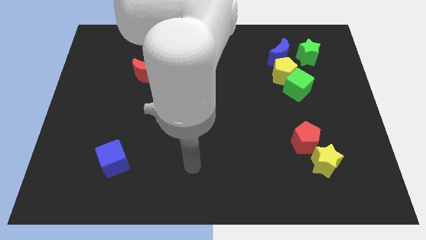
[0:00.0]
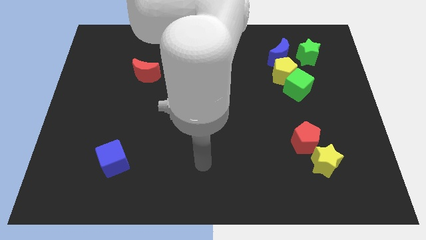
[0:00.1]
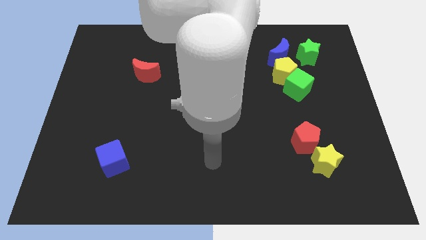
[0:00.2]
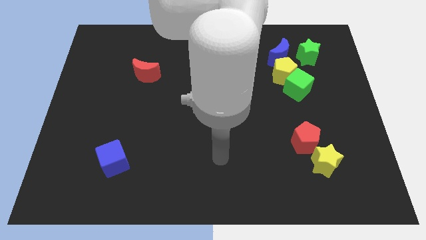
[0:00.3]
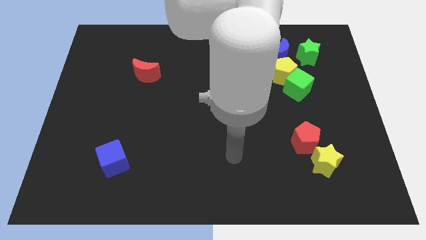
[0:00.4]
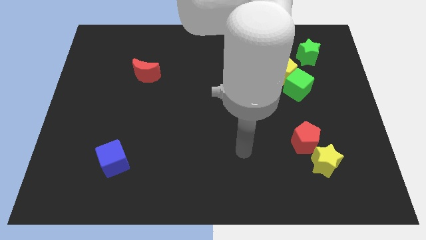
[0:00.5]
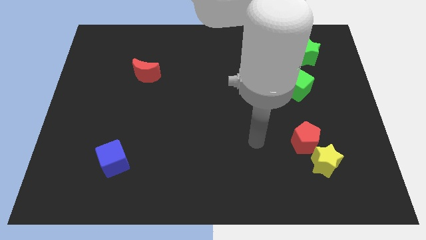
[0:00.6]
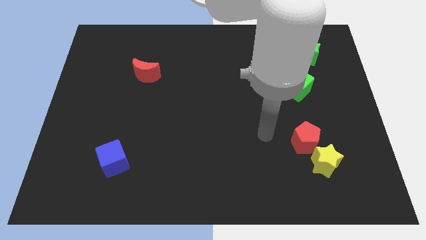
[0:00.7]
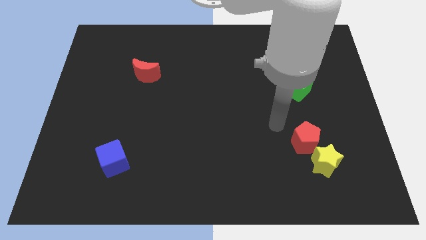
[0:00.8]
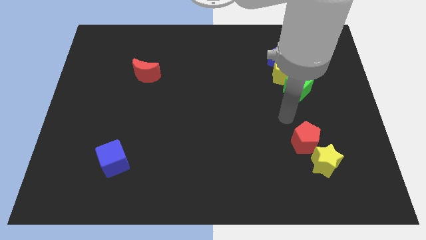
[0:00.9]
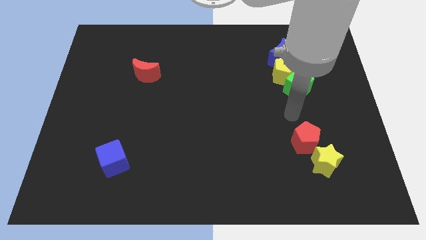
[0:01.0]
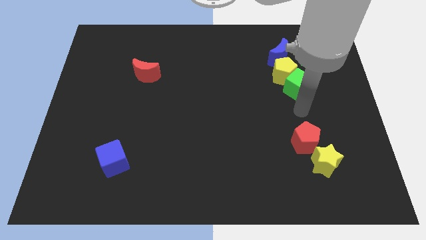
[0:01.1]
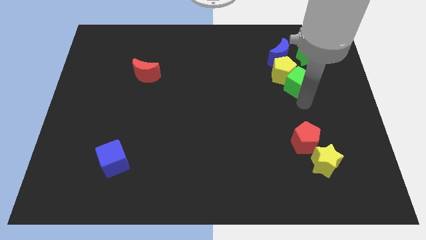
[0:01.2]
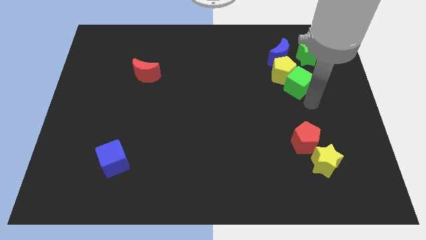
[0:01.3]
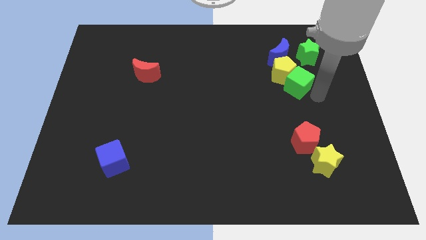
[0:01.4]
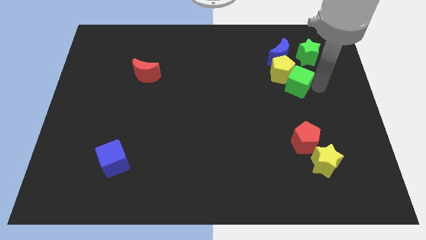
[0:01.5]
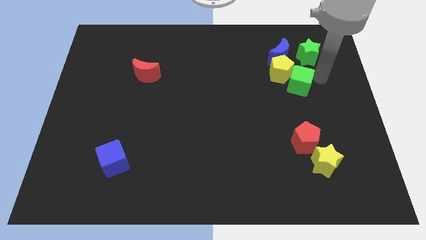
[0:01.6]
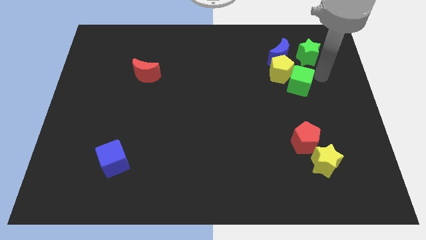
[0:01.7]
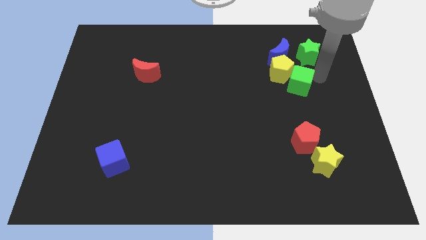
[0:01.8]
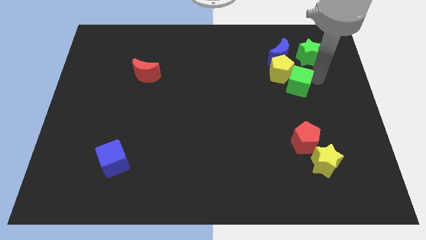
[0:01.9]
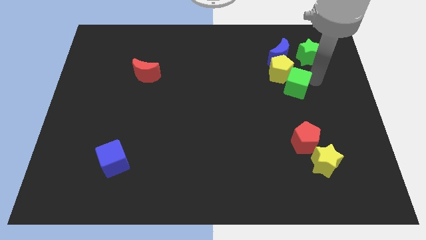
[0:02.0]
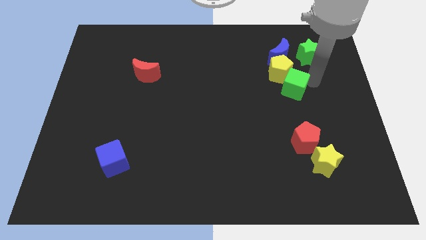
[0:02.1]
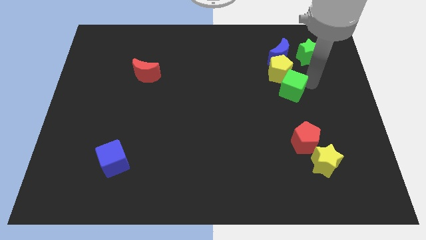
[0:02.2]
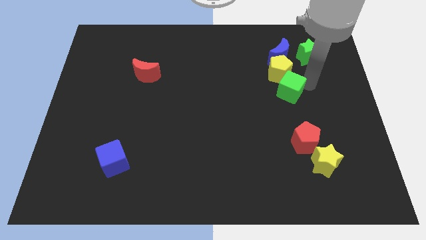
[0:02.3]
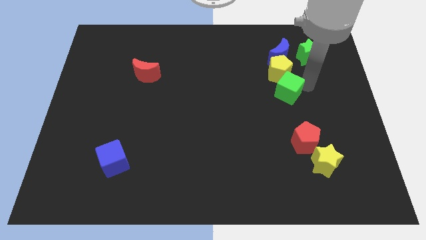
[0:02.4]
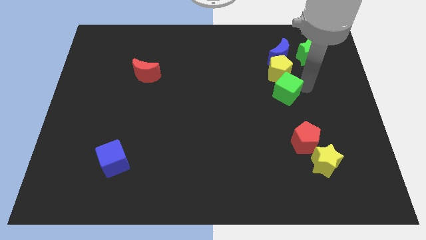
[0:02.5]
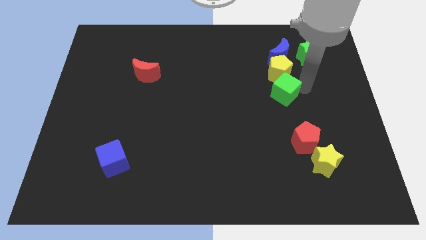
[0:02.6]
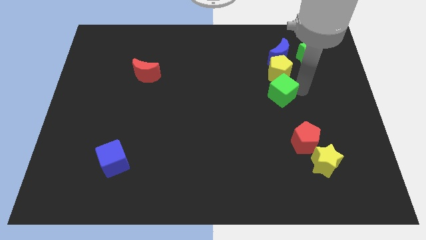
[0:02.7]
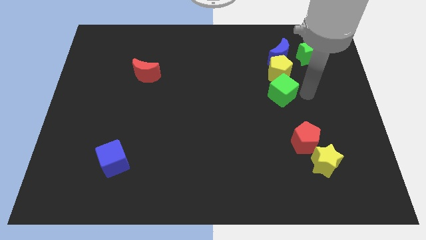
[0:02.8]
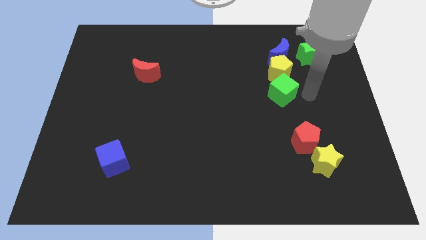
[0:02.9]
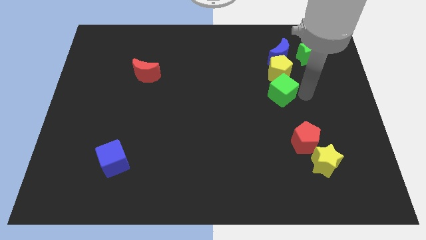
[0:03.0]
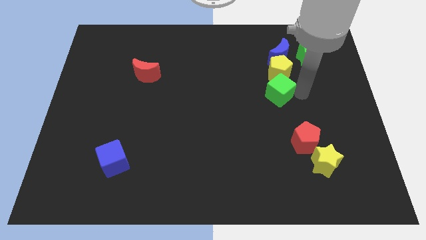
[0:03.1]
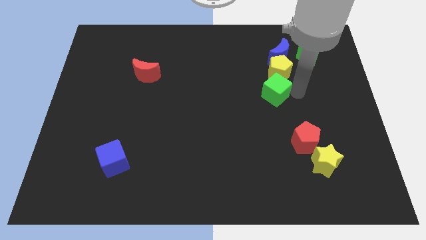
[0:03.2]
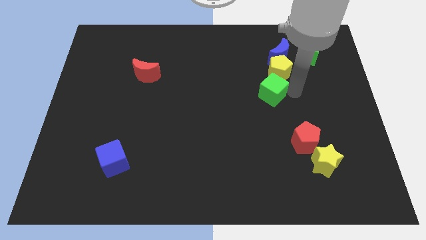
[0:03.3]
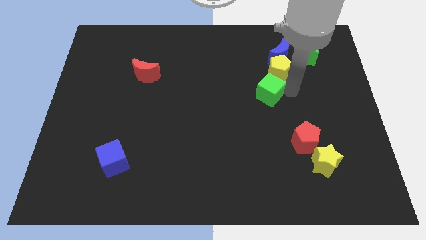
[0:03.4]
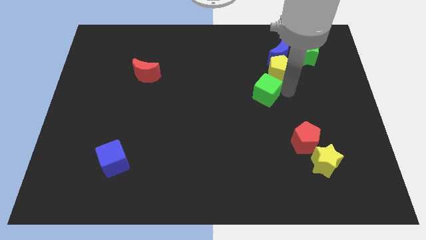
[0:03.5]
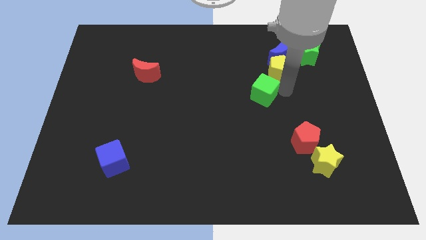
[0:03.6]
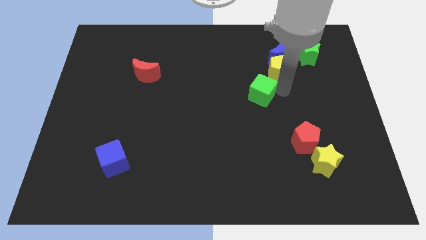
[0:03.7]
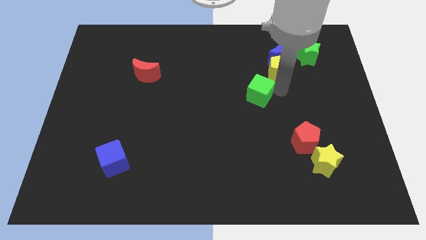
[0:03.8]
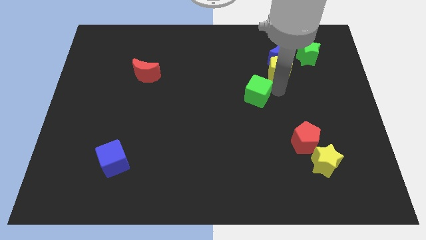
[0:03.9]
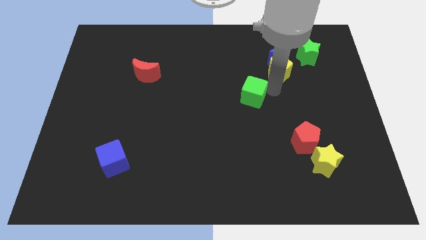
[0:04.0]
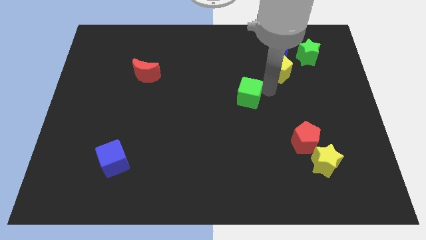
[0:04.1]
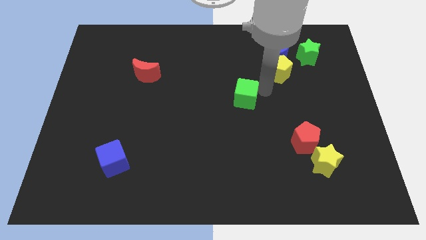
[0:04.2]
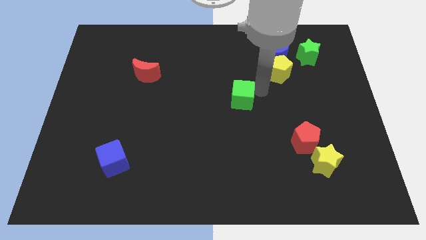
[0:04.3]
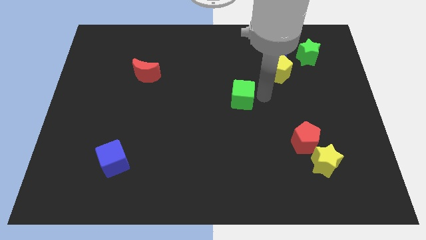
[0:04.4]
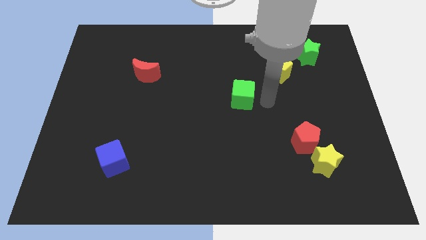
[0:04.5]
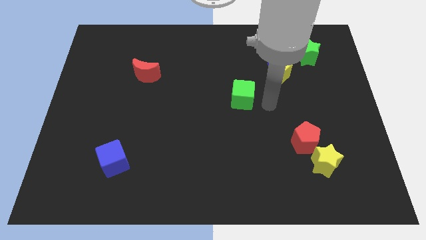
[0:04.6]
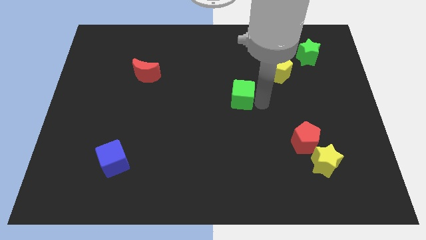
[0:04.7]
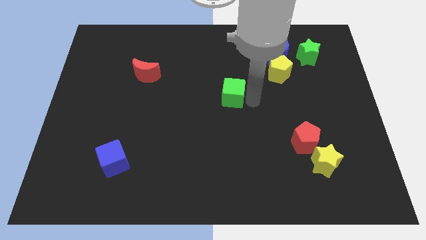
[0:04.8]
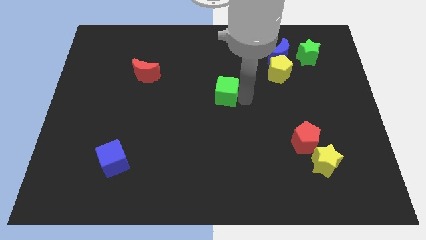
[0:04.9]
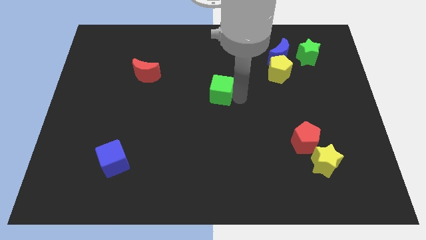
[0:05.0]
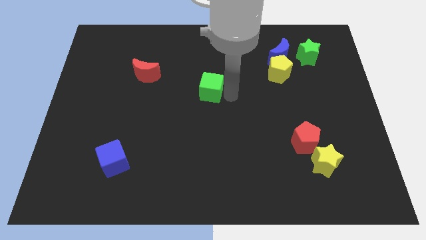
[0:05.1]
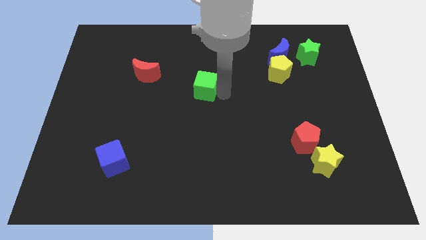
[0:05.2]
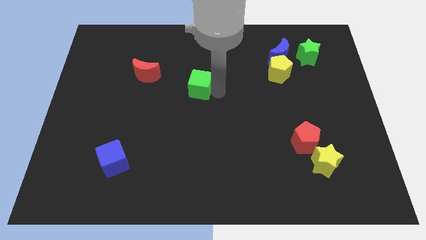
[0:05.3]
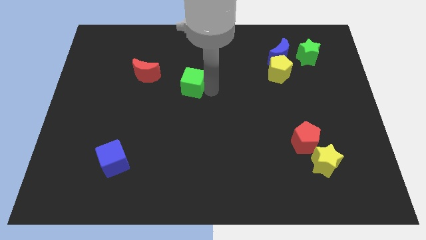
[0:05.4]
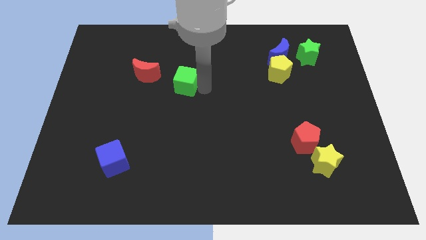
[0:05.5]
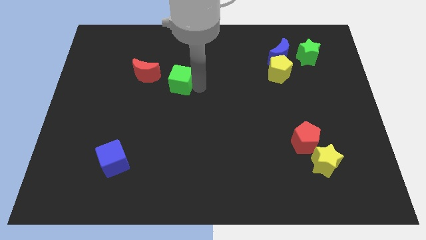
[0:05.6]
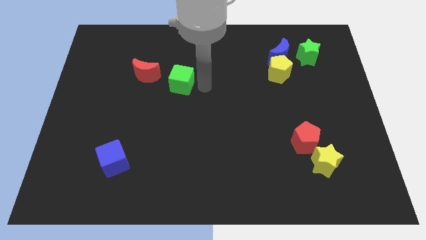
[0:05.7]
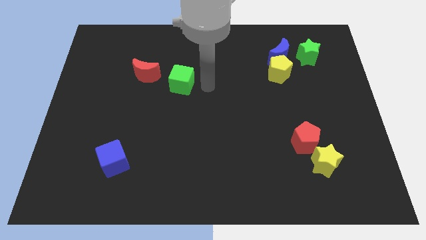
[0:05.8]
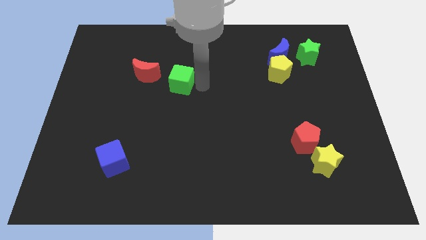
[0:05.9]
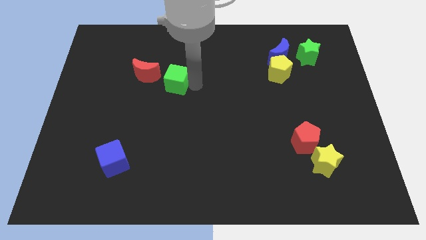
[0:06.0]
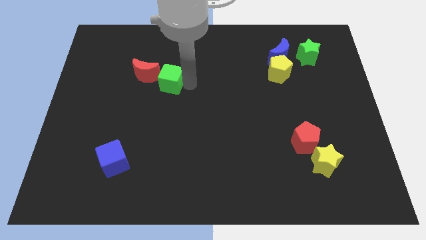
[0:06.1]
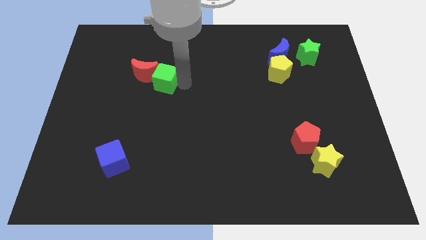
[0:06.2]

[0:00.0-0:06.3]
move the green cube next to the red moon

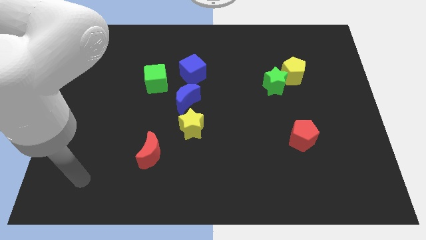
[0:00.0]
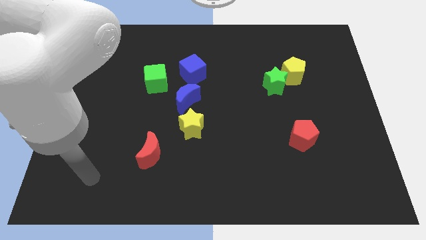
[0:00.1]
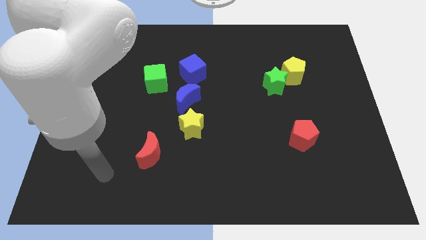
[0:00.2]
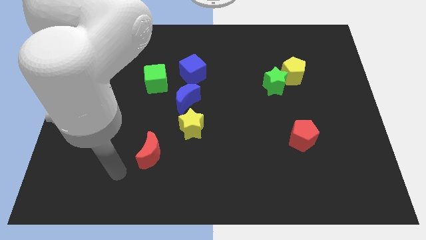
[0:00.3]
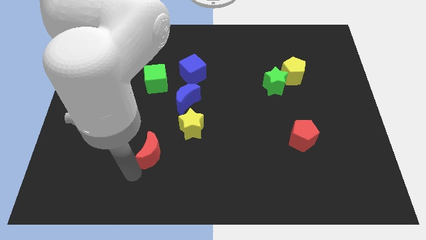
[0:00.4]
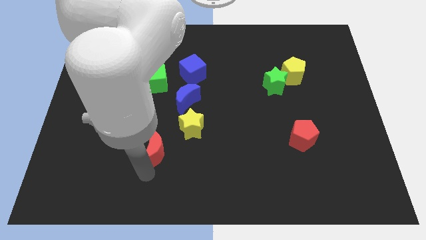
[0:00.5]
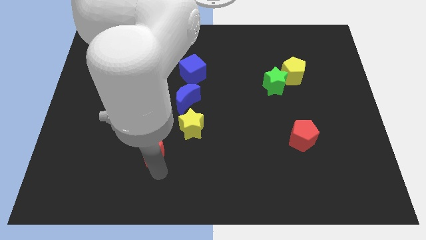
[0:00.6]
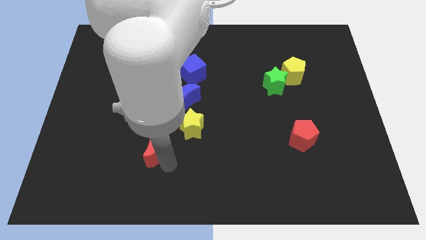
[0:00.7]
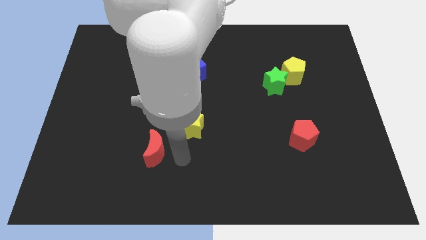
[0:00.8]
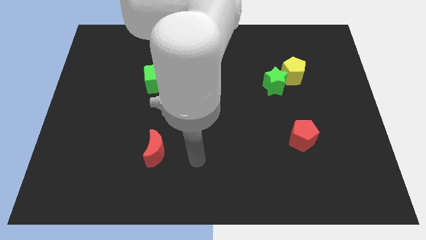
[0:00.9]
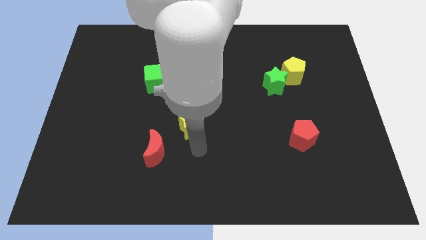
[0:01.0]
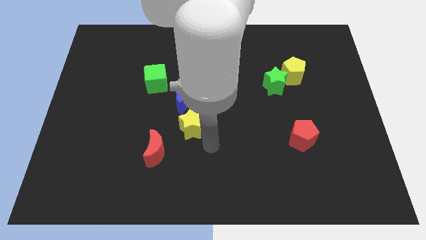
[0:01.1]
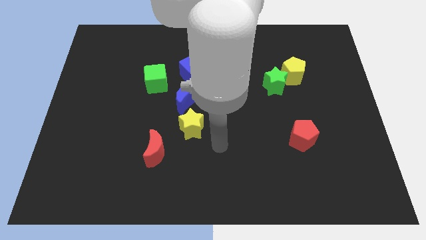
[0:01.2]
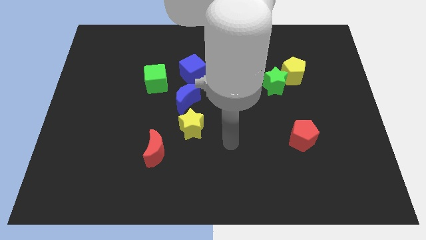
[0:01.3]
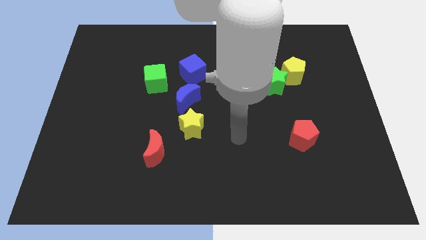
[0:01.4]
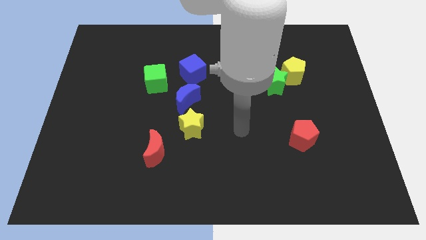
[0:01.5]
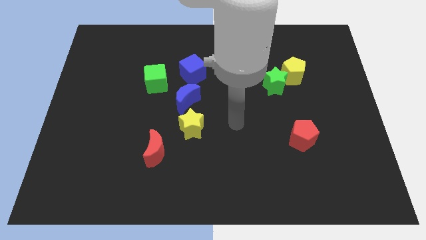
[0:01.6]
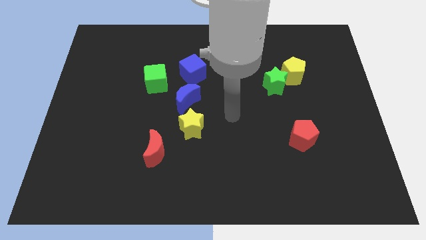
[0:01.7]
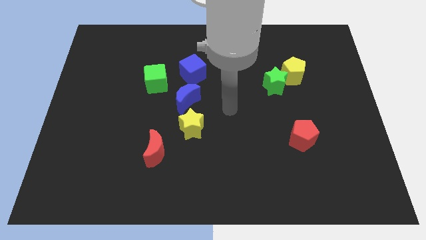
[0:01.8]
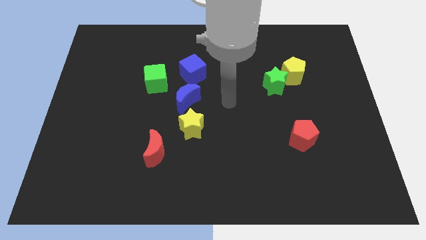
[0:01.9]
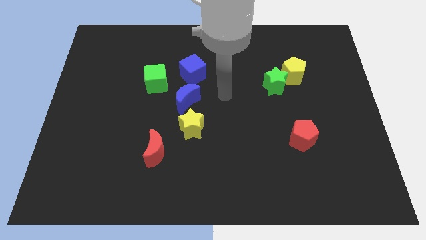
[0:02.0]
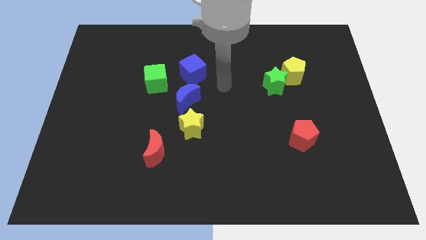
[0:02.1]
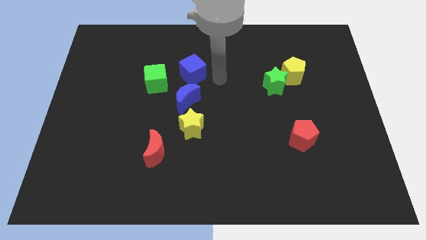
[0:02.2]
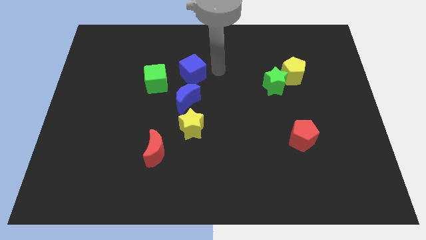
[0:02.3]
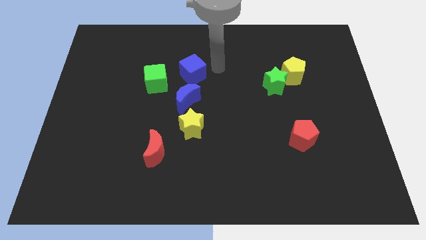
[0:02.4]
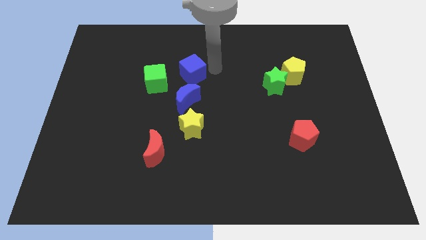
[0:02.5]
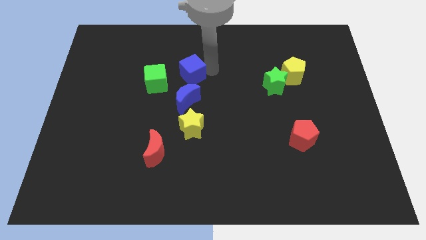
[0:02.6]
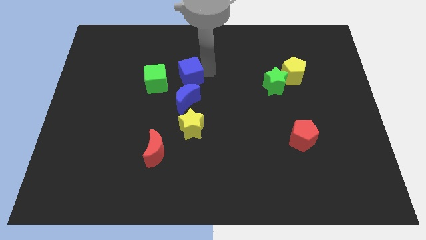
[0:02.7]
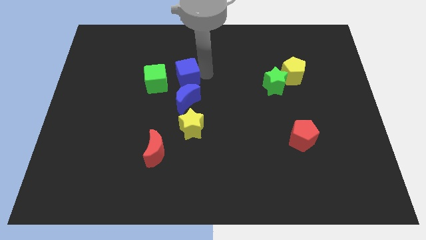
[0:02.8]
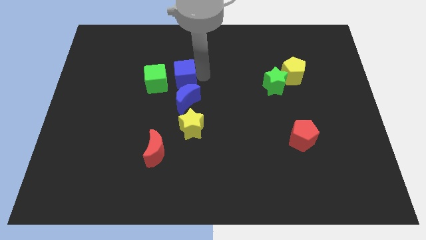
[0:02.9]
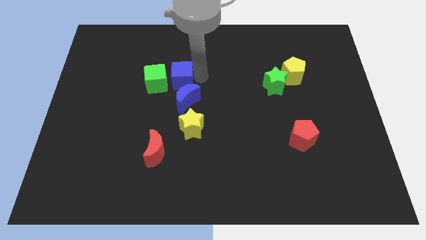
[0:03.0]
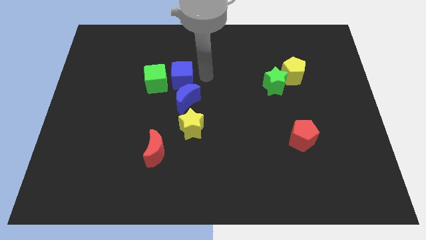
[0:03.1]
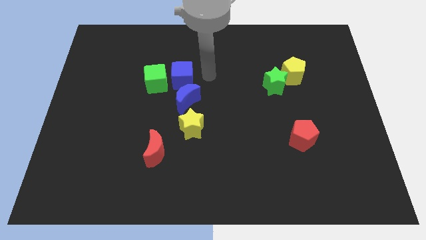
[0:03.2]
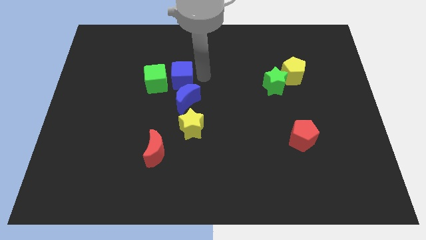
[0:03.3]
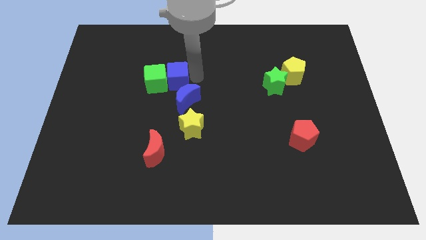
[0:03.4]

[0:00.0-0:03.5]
push the blue cube next to the green cube
